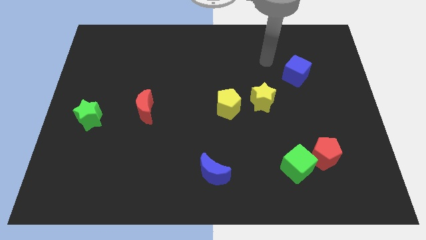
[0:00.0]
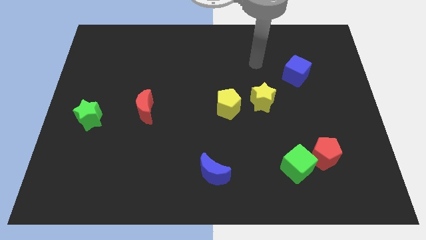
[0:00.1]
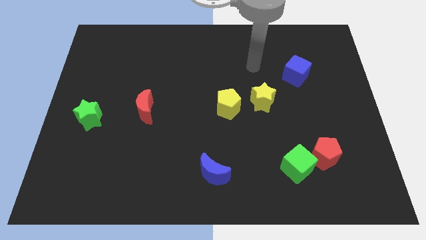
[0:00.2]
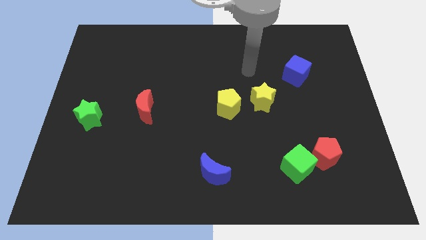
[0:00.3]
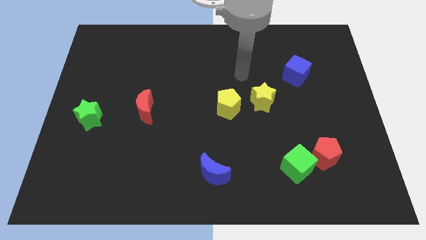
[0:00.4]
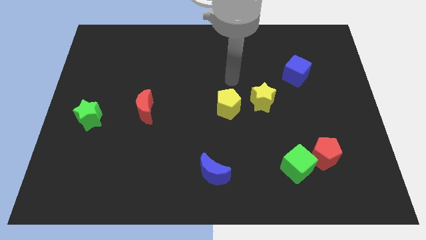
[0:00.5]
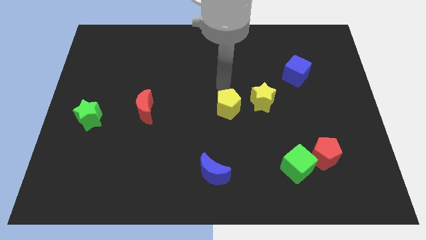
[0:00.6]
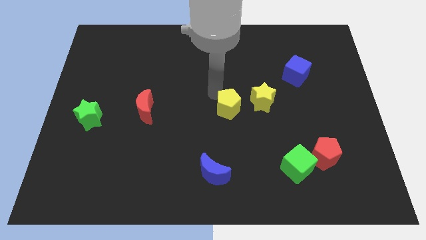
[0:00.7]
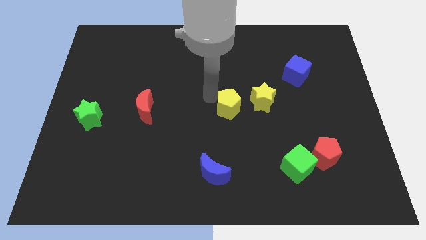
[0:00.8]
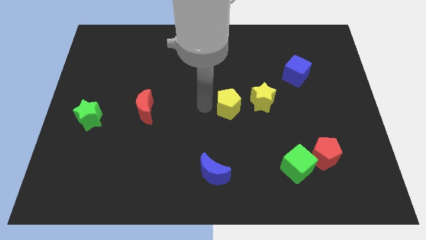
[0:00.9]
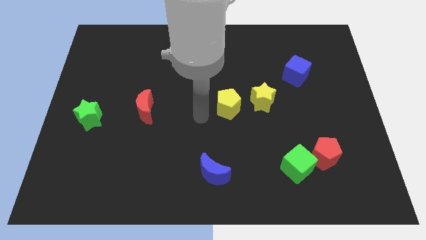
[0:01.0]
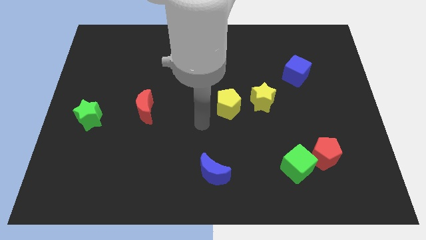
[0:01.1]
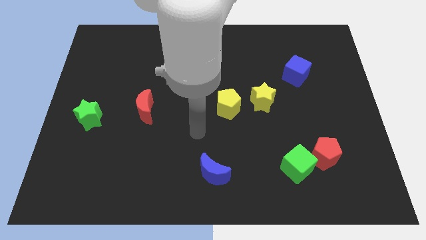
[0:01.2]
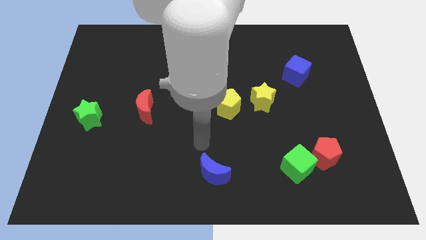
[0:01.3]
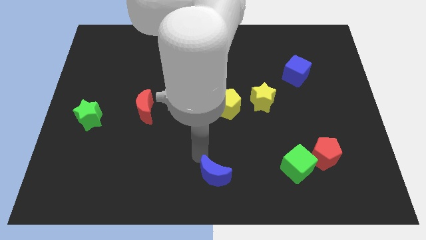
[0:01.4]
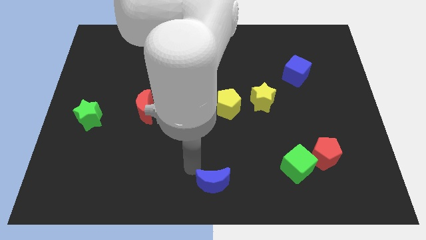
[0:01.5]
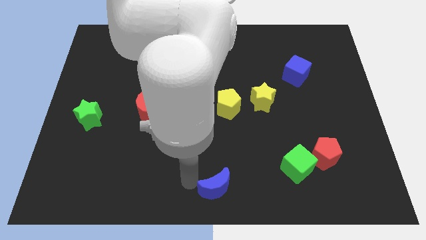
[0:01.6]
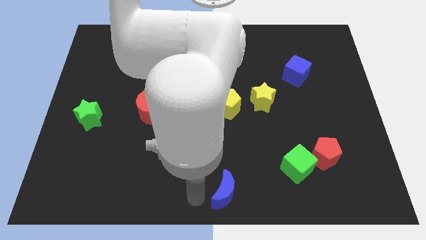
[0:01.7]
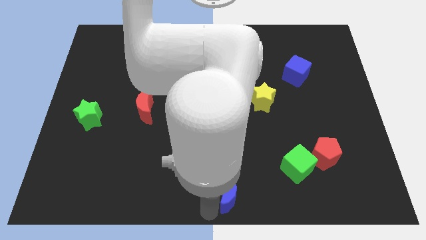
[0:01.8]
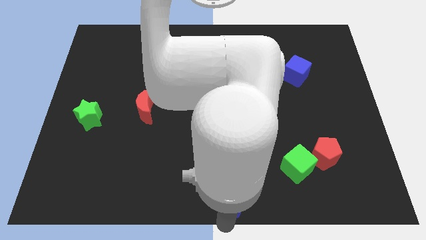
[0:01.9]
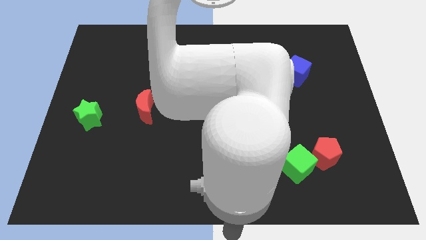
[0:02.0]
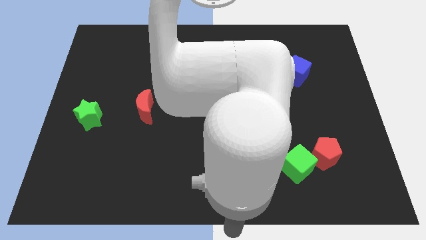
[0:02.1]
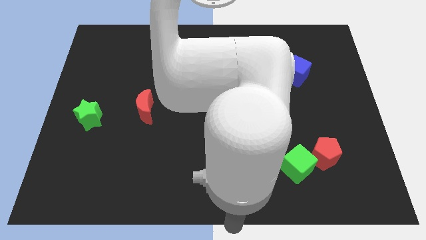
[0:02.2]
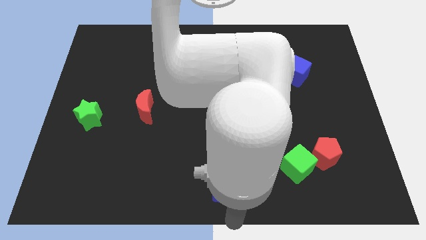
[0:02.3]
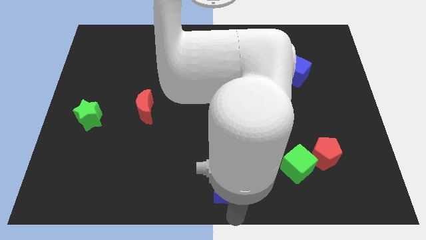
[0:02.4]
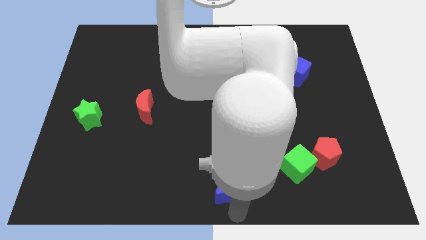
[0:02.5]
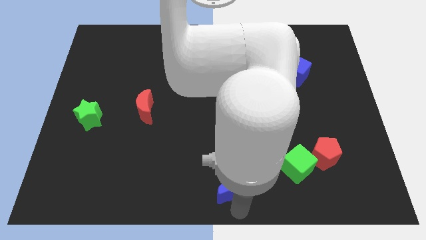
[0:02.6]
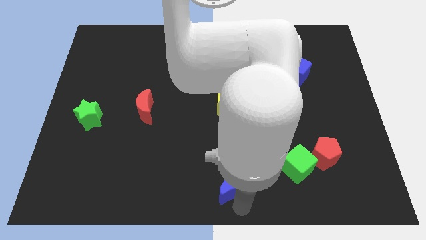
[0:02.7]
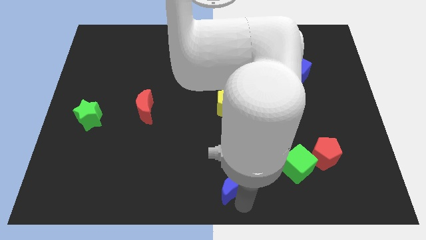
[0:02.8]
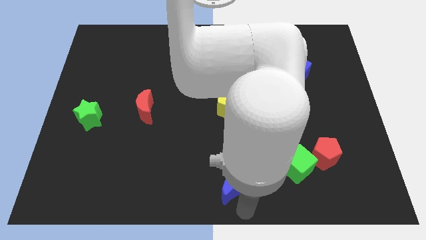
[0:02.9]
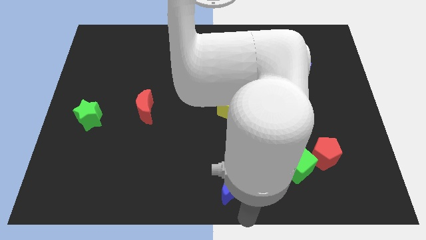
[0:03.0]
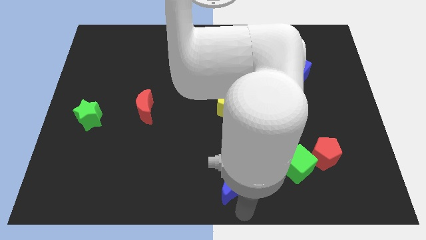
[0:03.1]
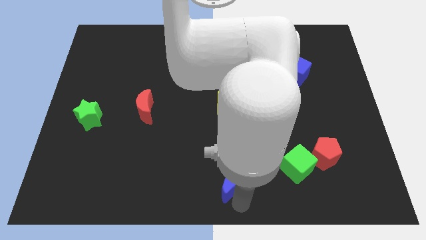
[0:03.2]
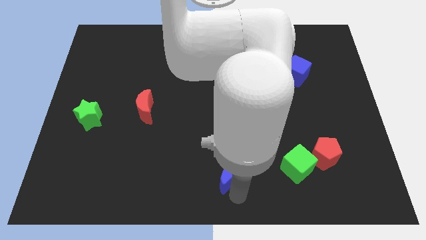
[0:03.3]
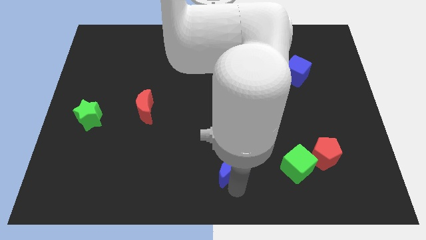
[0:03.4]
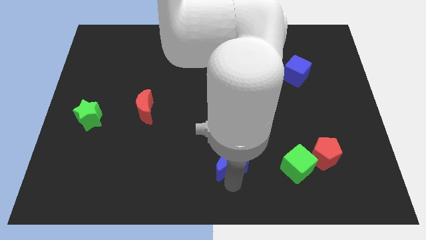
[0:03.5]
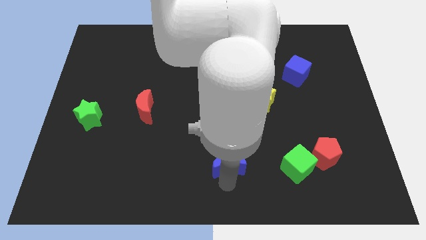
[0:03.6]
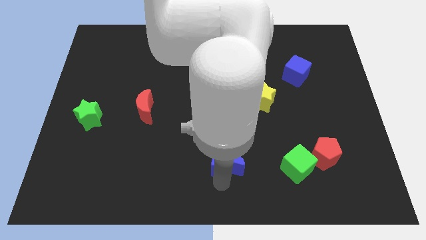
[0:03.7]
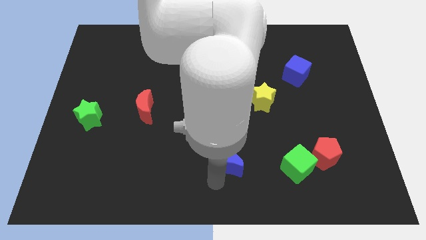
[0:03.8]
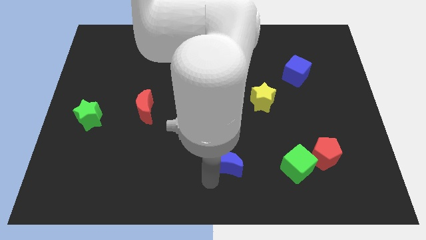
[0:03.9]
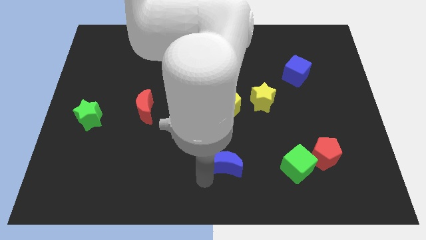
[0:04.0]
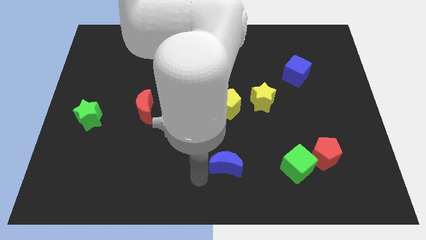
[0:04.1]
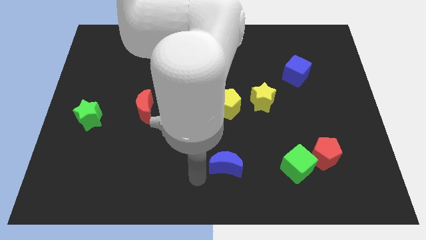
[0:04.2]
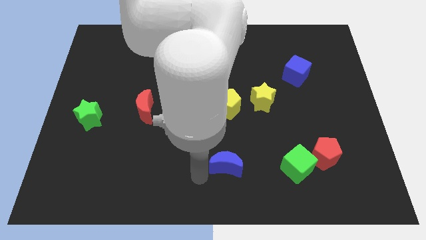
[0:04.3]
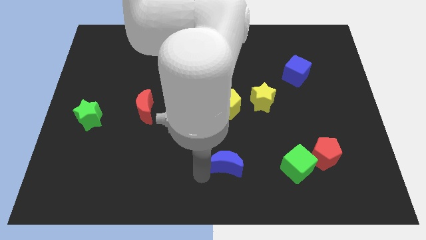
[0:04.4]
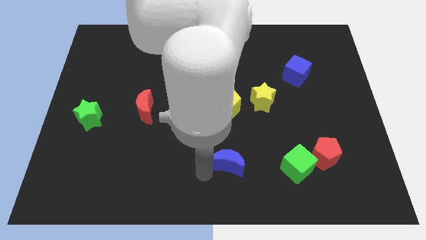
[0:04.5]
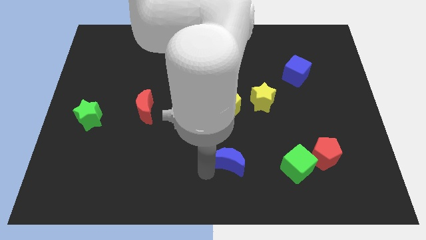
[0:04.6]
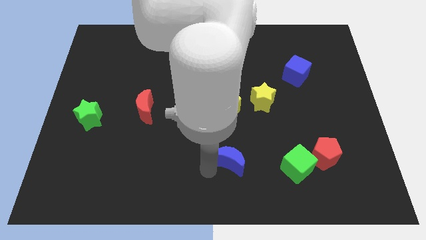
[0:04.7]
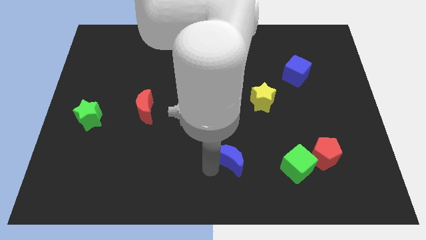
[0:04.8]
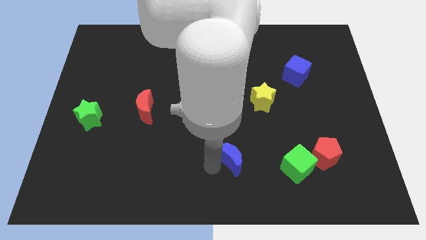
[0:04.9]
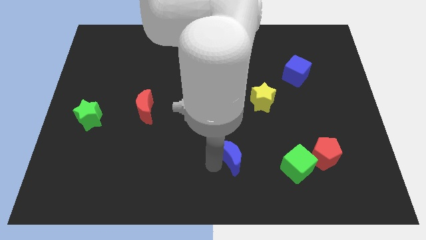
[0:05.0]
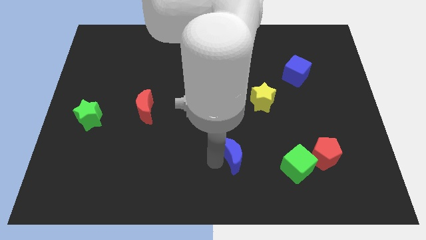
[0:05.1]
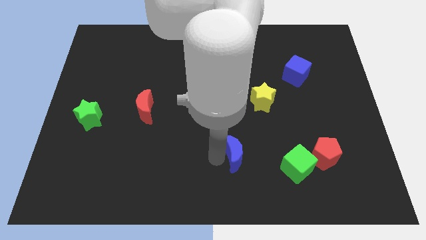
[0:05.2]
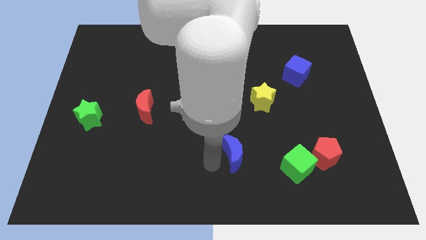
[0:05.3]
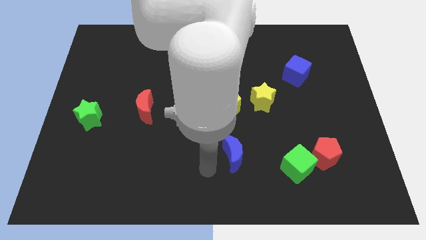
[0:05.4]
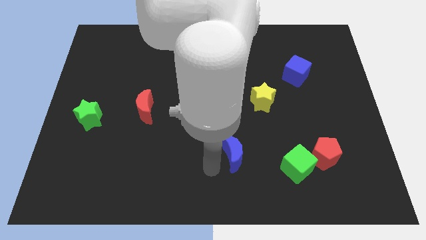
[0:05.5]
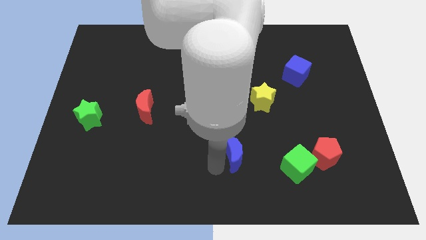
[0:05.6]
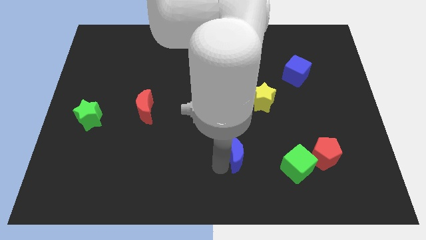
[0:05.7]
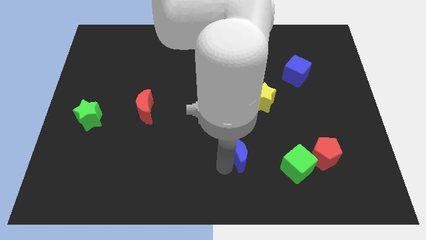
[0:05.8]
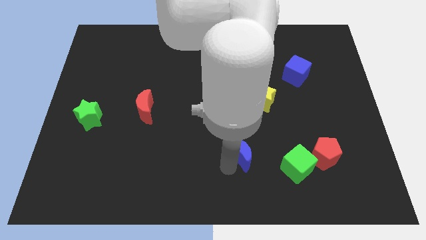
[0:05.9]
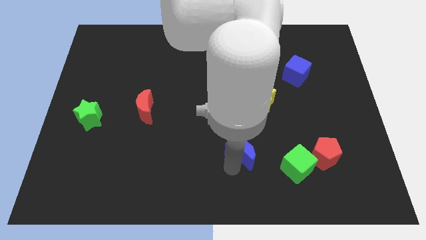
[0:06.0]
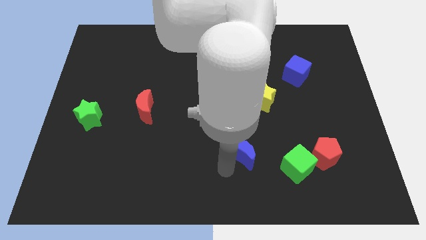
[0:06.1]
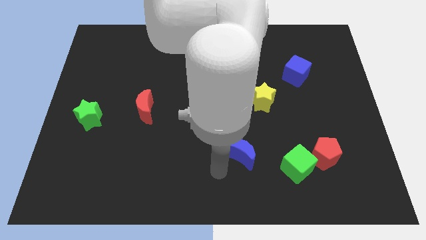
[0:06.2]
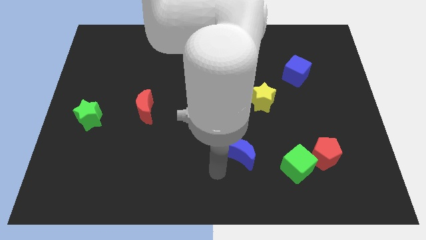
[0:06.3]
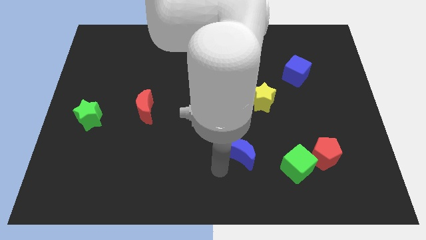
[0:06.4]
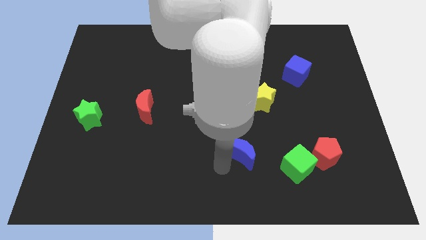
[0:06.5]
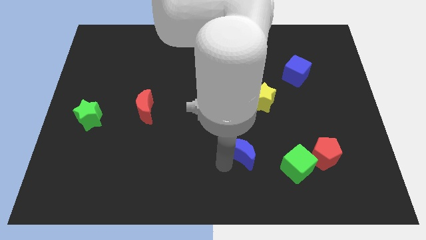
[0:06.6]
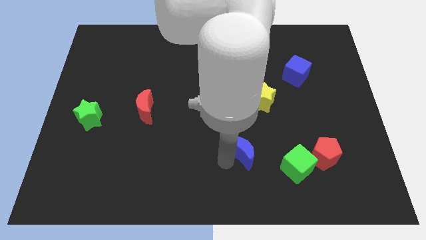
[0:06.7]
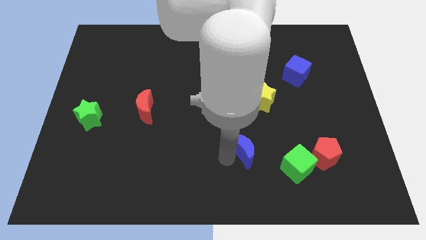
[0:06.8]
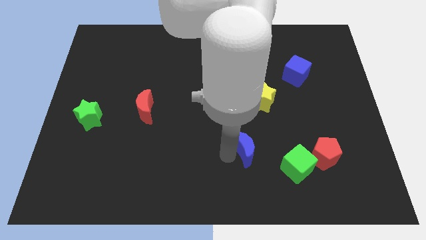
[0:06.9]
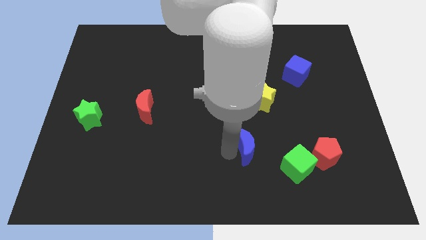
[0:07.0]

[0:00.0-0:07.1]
push the blue moon below the yellow star
